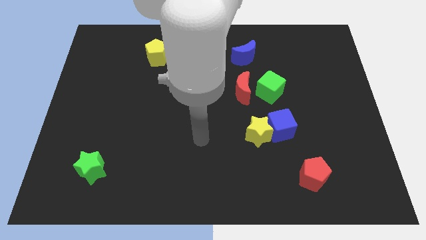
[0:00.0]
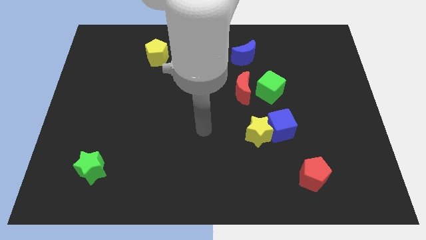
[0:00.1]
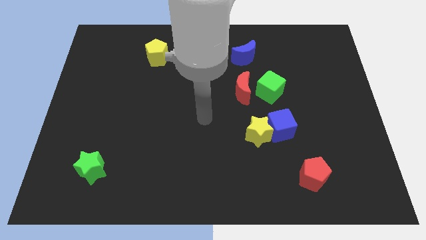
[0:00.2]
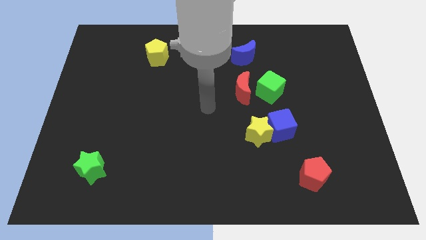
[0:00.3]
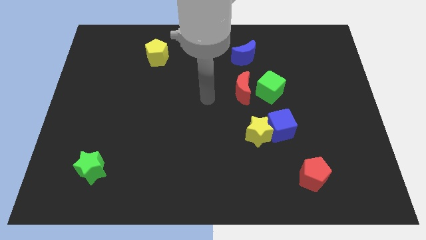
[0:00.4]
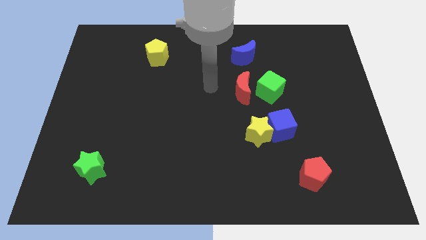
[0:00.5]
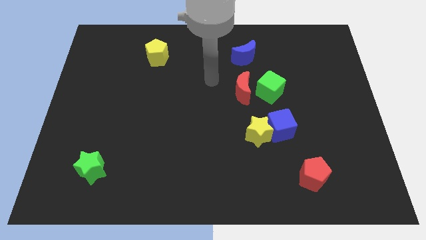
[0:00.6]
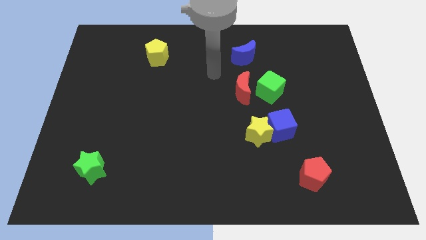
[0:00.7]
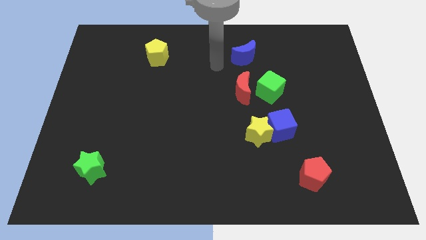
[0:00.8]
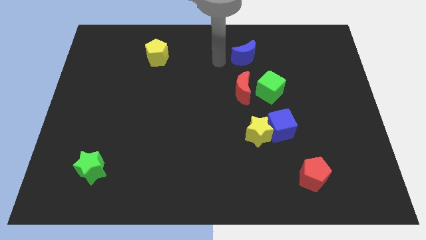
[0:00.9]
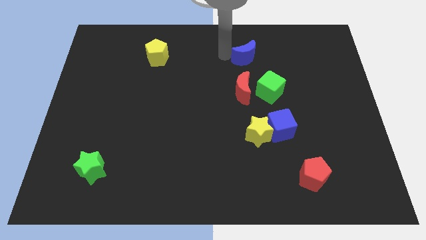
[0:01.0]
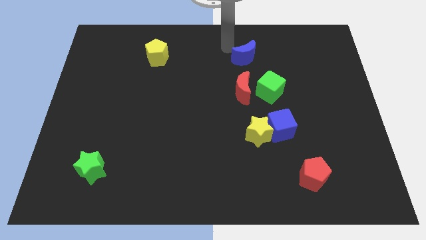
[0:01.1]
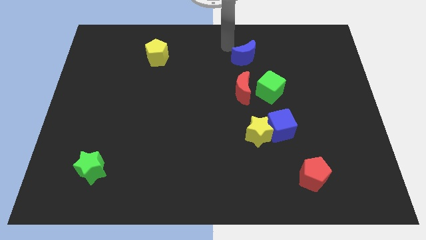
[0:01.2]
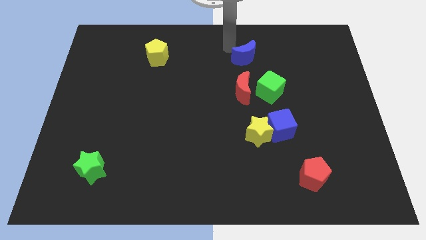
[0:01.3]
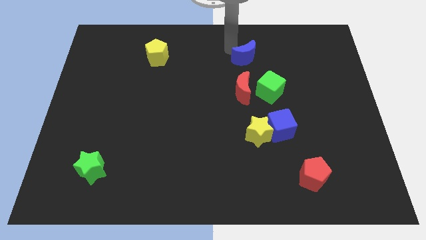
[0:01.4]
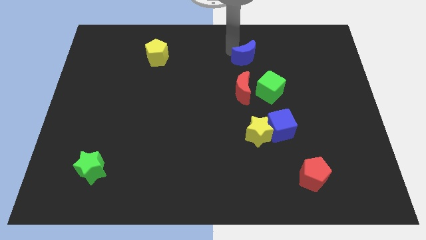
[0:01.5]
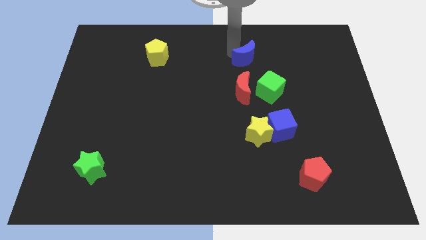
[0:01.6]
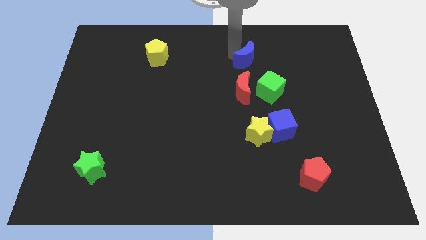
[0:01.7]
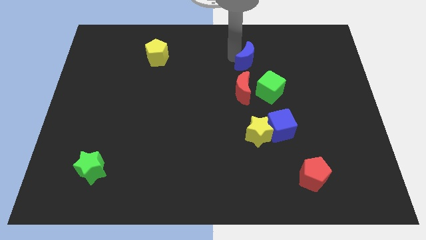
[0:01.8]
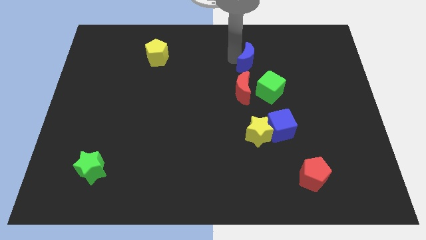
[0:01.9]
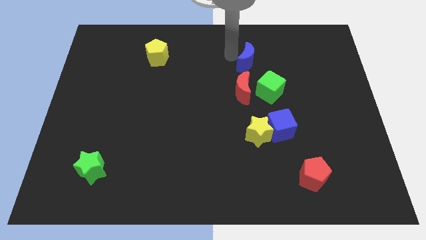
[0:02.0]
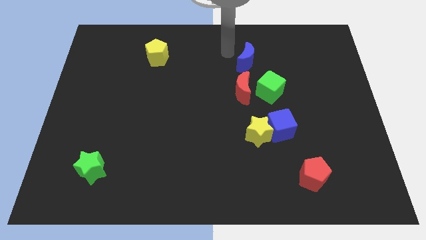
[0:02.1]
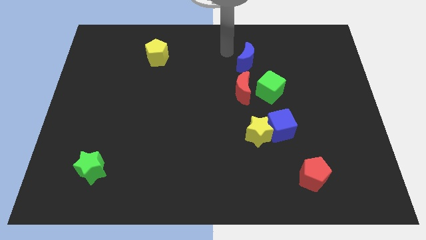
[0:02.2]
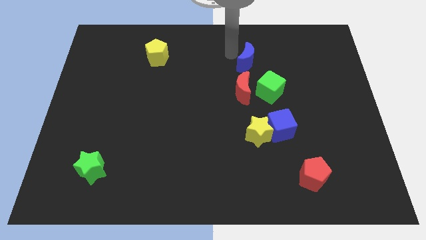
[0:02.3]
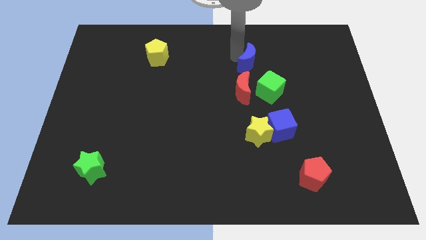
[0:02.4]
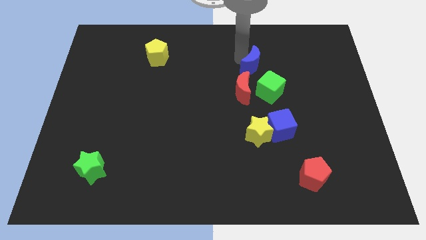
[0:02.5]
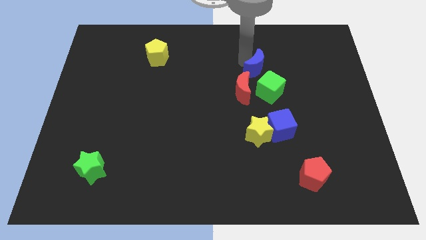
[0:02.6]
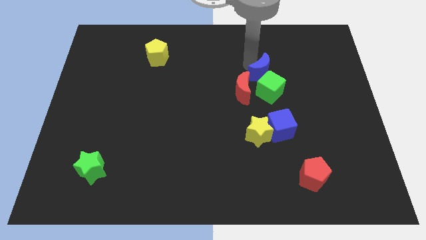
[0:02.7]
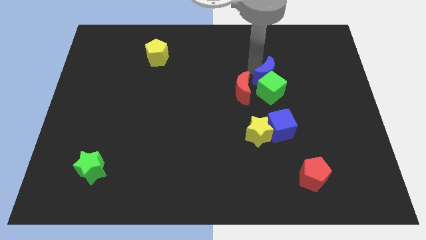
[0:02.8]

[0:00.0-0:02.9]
slide the blue moon a bit diagonally down and right

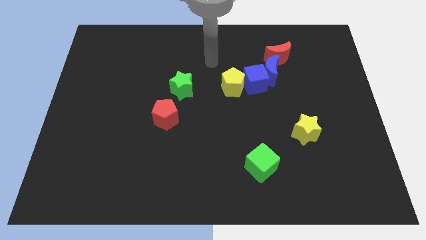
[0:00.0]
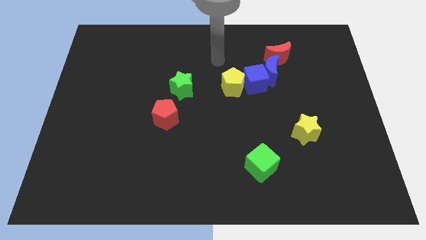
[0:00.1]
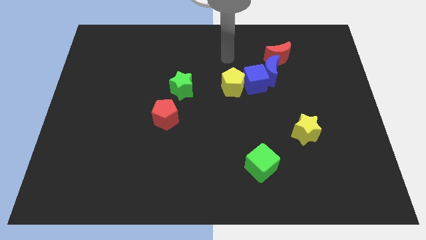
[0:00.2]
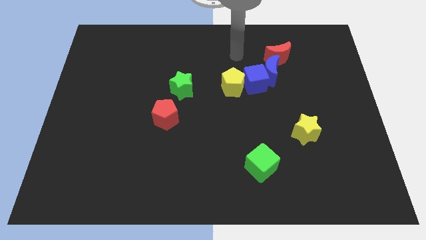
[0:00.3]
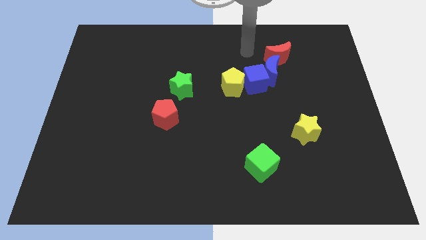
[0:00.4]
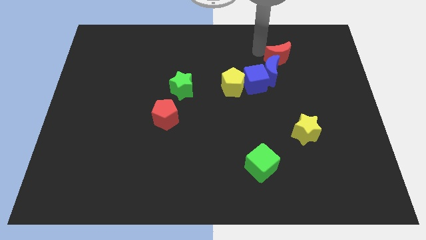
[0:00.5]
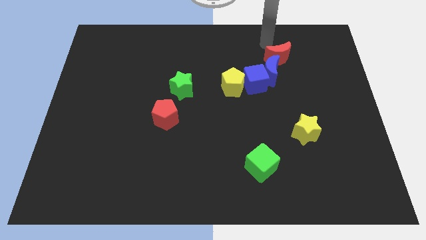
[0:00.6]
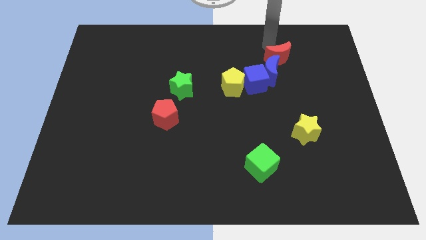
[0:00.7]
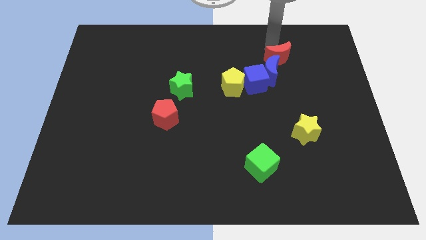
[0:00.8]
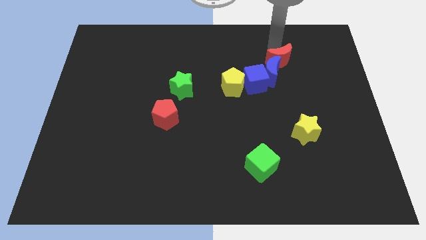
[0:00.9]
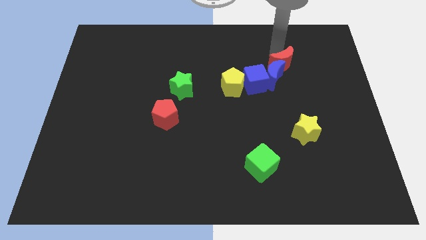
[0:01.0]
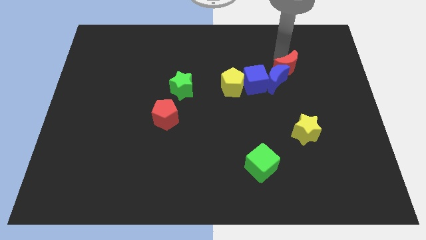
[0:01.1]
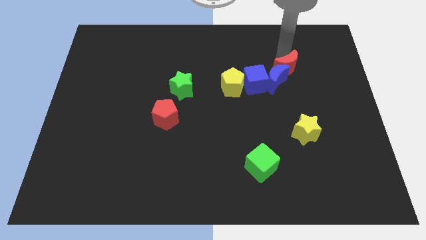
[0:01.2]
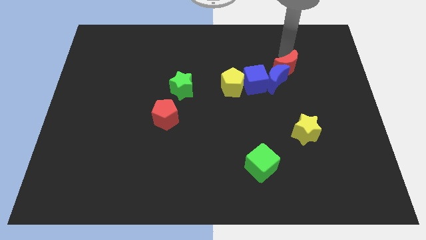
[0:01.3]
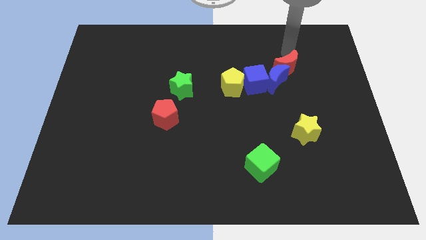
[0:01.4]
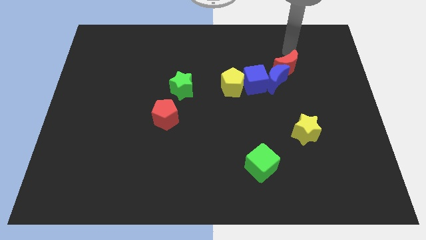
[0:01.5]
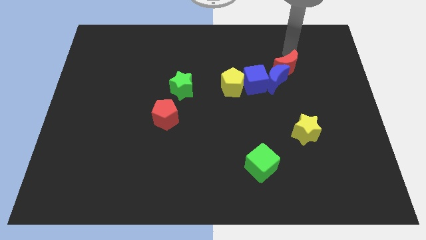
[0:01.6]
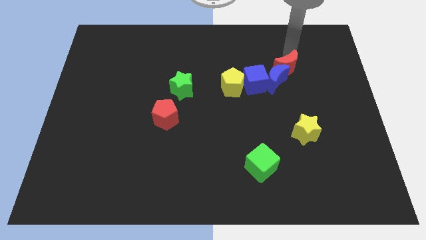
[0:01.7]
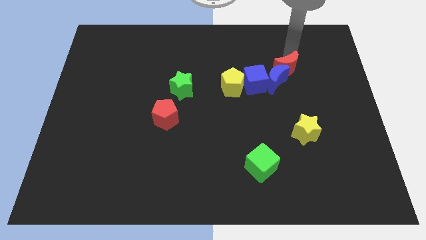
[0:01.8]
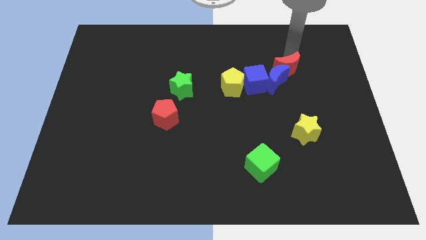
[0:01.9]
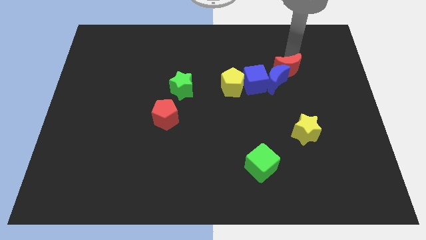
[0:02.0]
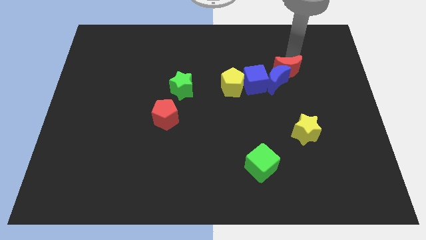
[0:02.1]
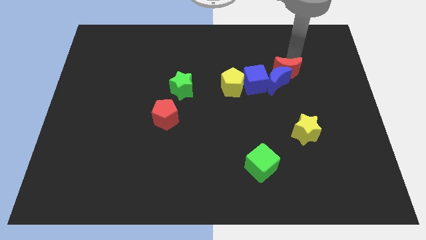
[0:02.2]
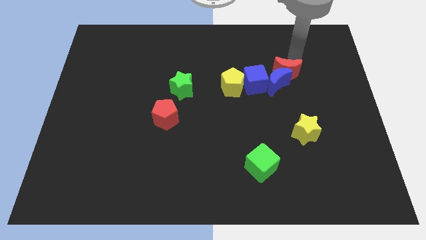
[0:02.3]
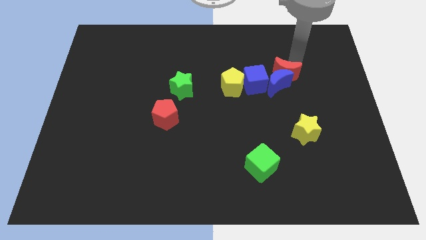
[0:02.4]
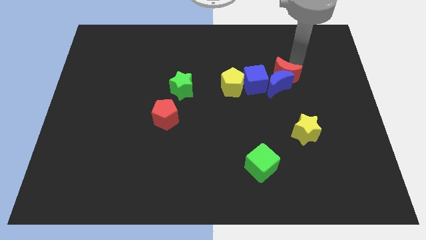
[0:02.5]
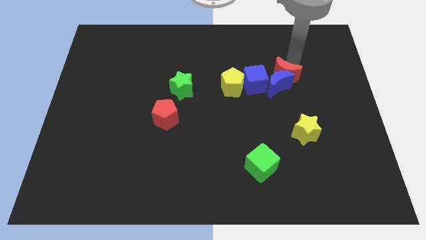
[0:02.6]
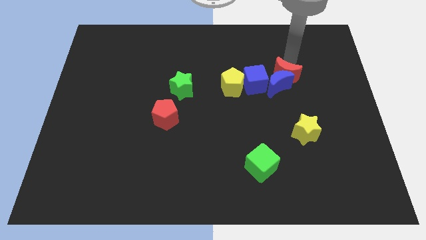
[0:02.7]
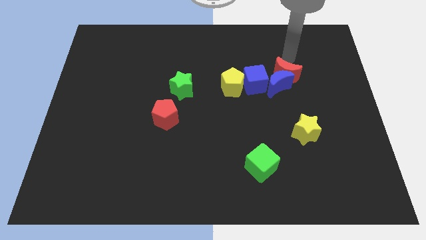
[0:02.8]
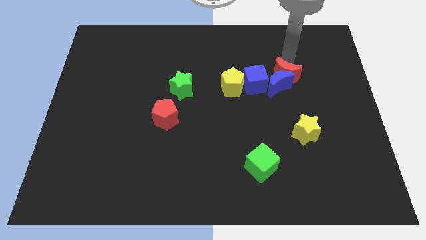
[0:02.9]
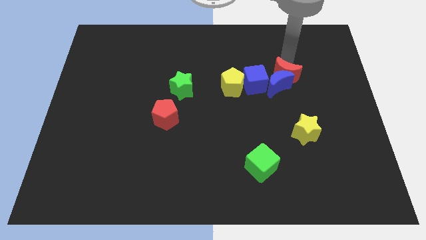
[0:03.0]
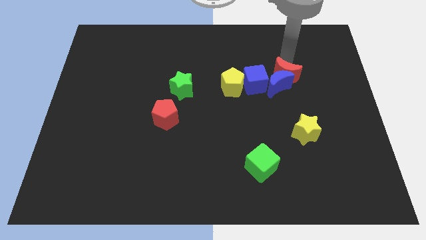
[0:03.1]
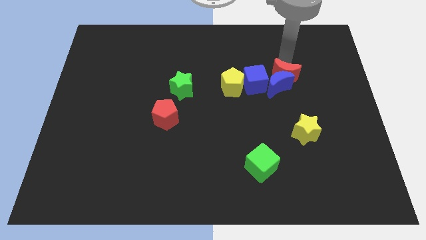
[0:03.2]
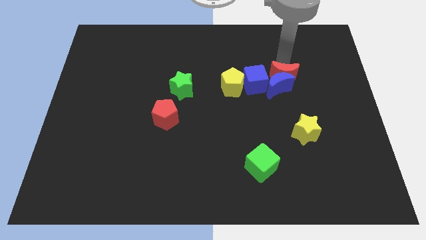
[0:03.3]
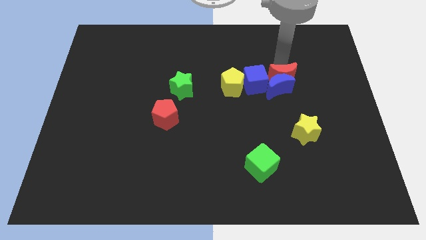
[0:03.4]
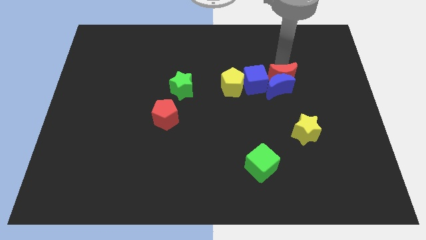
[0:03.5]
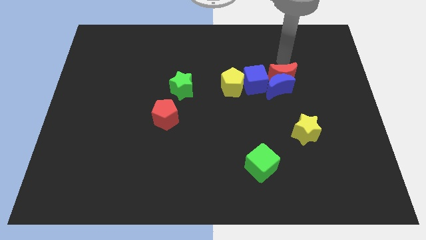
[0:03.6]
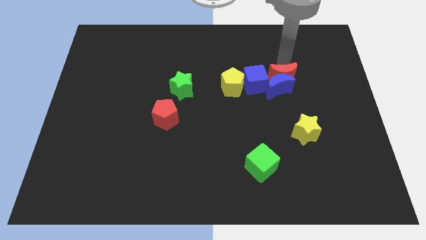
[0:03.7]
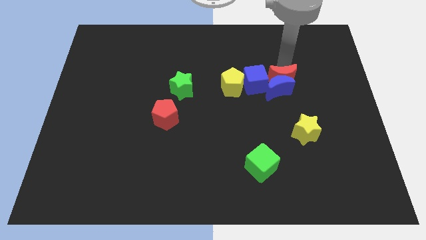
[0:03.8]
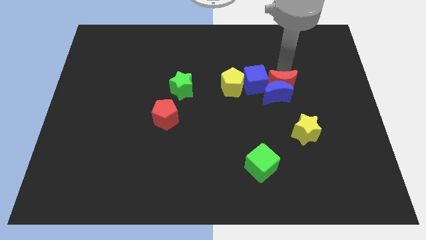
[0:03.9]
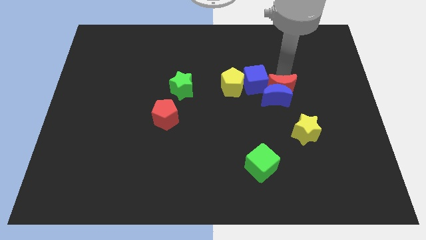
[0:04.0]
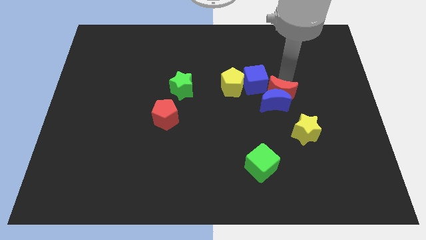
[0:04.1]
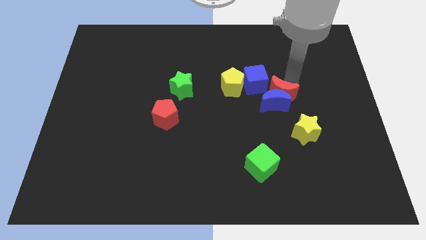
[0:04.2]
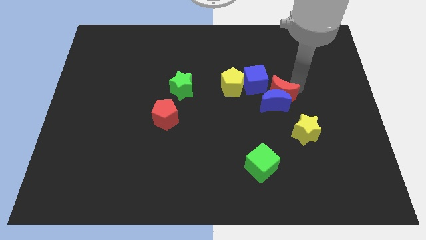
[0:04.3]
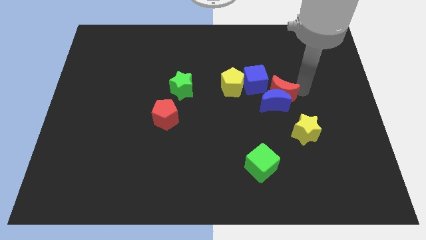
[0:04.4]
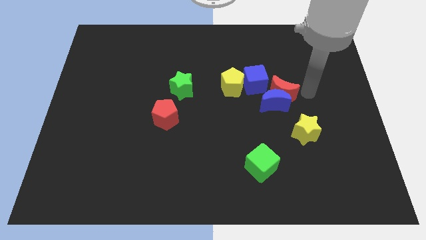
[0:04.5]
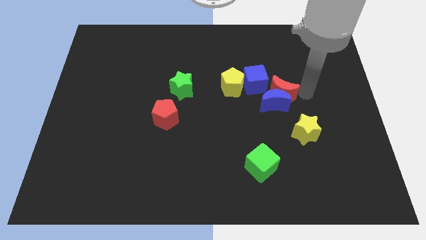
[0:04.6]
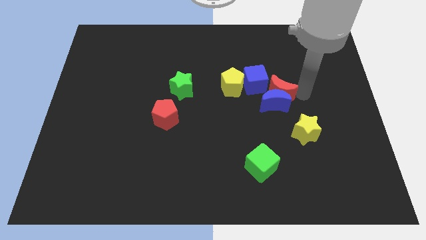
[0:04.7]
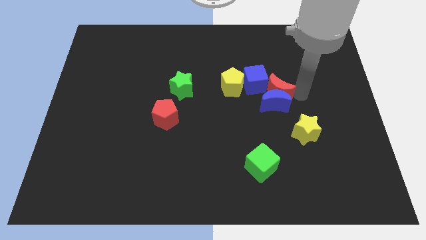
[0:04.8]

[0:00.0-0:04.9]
push the red moon down and to the left diagonally a little

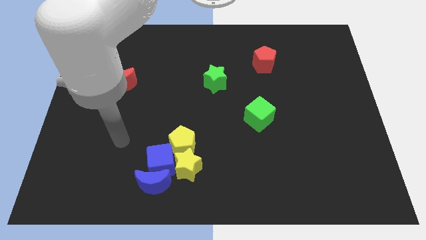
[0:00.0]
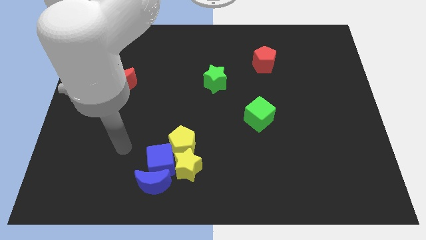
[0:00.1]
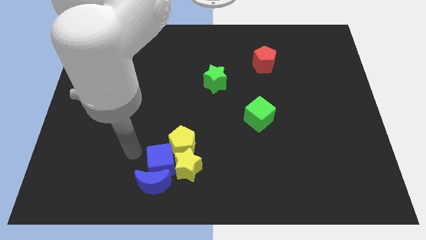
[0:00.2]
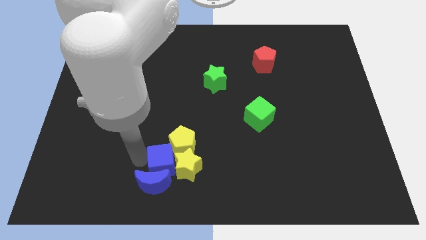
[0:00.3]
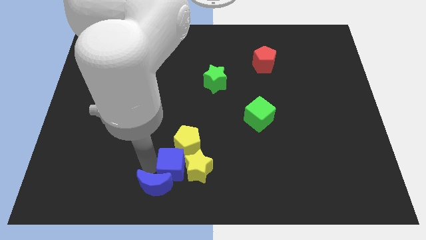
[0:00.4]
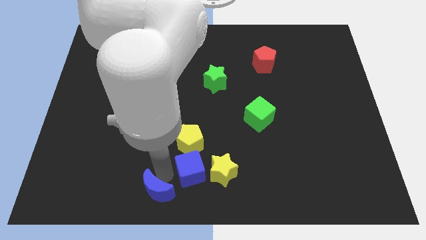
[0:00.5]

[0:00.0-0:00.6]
slightly slide the yellow star to the right
